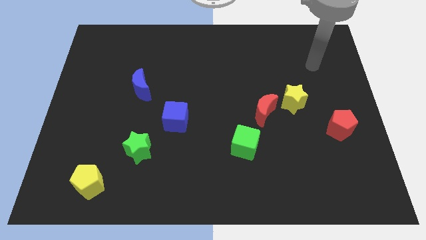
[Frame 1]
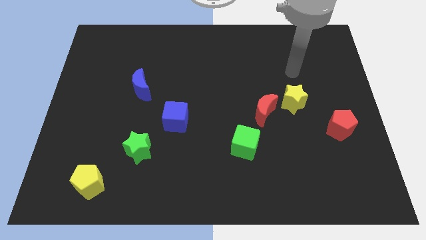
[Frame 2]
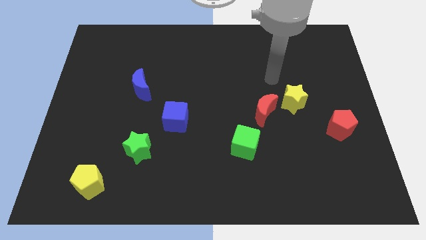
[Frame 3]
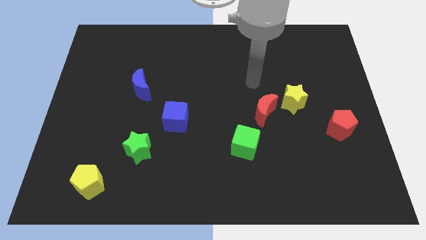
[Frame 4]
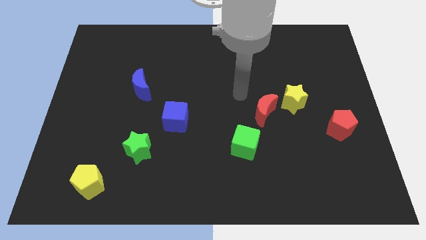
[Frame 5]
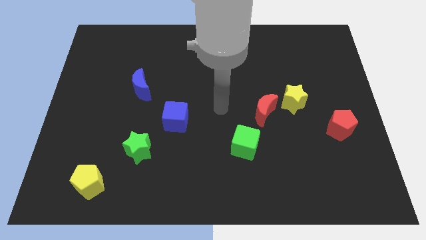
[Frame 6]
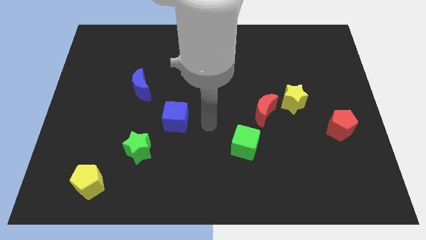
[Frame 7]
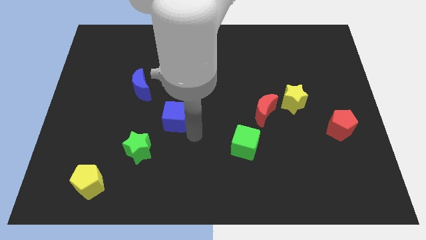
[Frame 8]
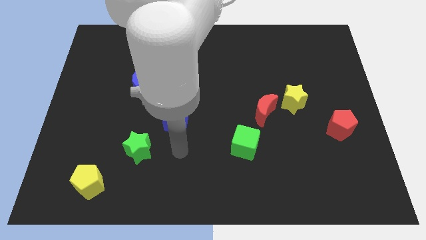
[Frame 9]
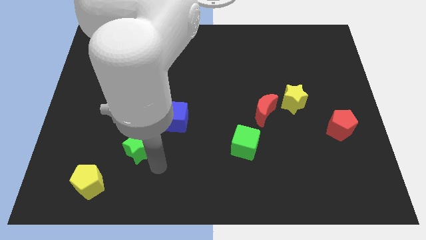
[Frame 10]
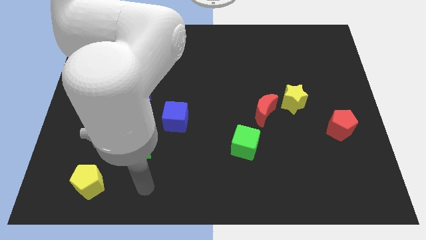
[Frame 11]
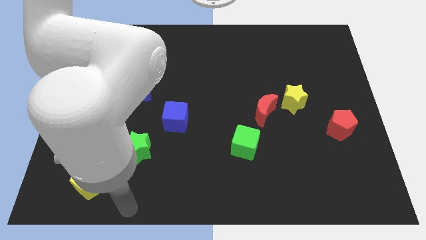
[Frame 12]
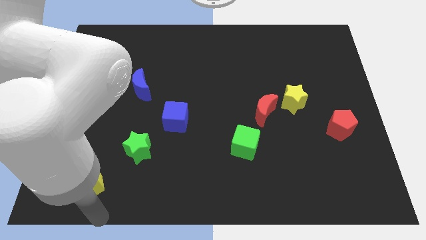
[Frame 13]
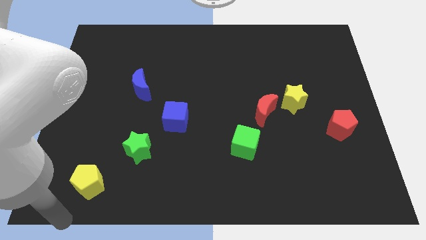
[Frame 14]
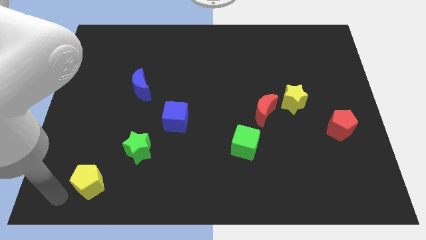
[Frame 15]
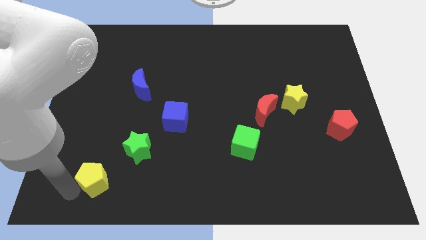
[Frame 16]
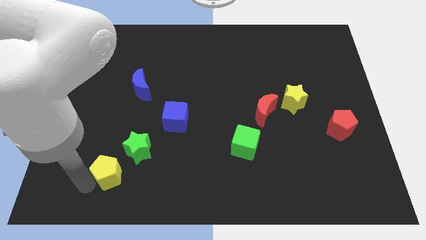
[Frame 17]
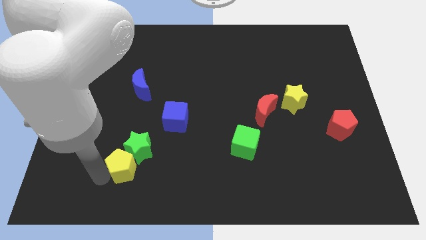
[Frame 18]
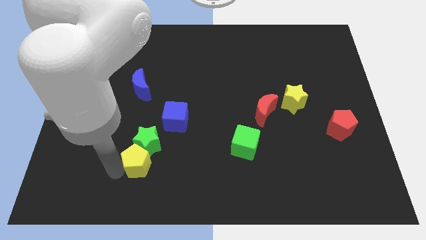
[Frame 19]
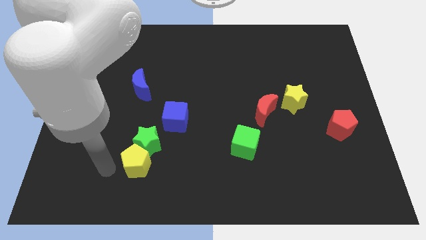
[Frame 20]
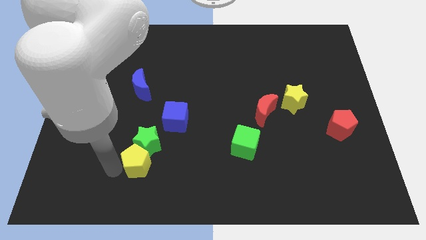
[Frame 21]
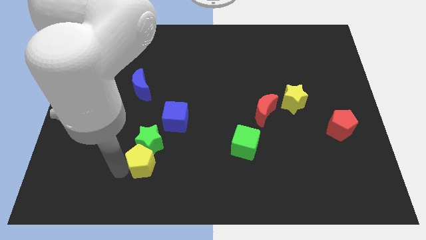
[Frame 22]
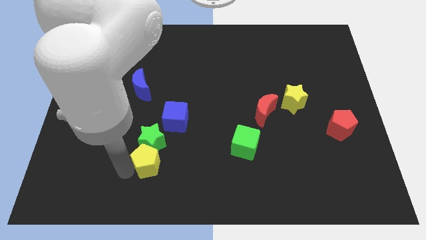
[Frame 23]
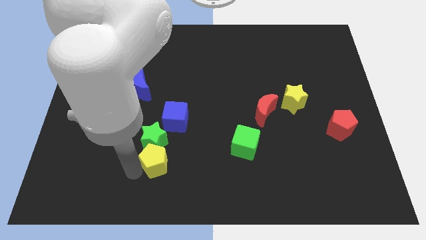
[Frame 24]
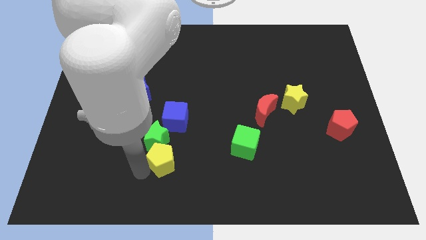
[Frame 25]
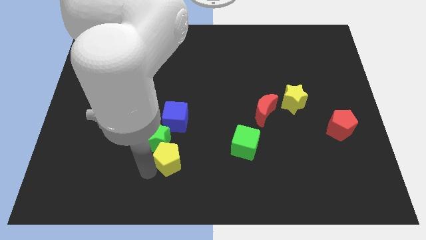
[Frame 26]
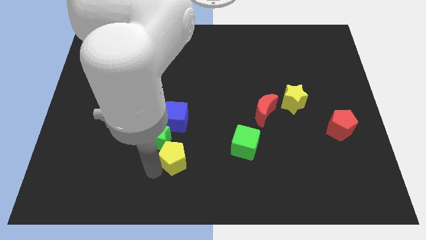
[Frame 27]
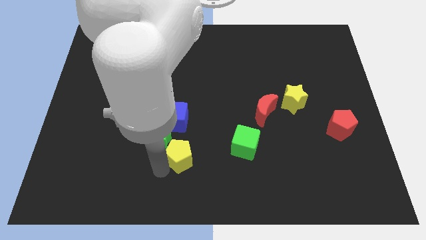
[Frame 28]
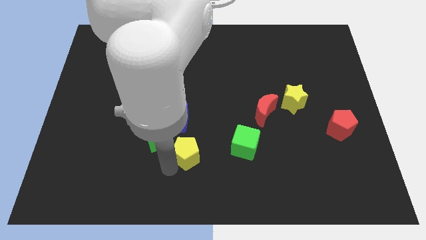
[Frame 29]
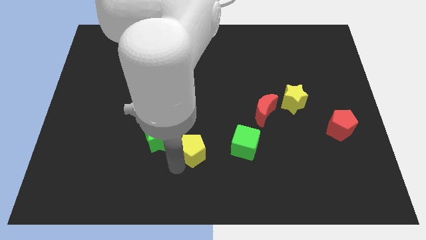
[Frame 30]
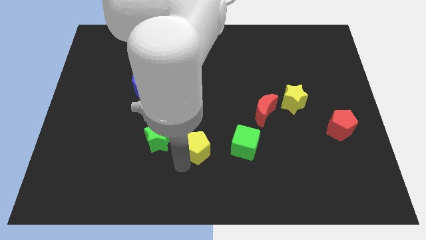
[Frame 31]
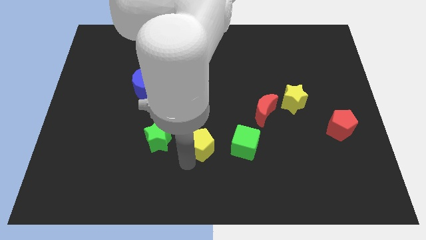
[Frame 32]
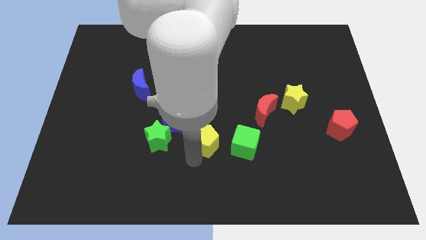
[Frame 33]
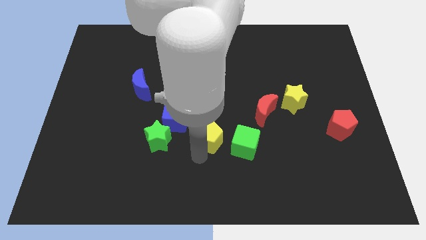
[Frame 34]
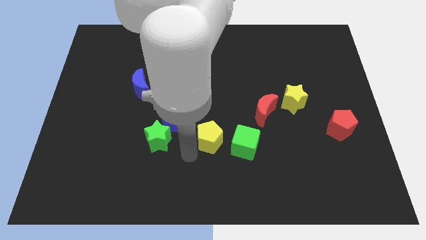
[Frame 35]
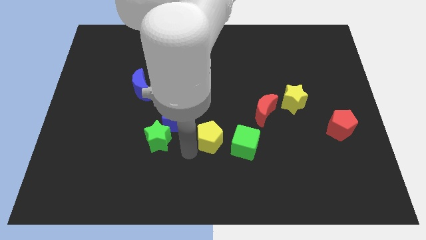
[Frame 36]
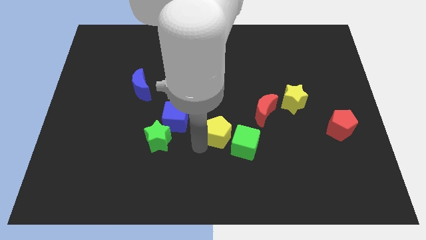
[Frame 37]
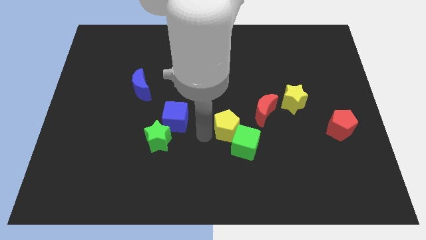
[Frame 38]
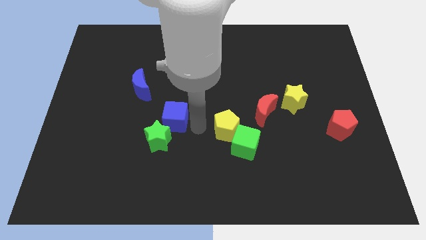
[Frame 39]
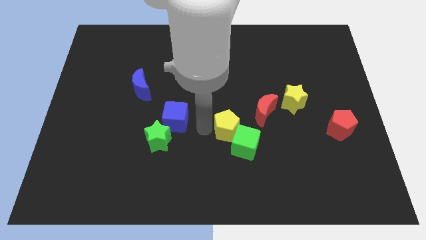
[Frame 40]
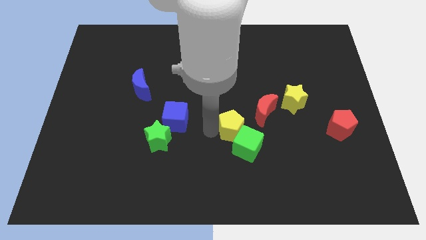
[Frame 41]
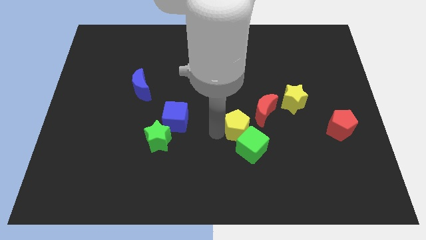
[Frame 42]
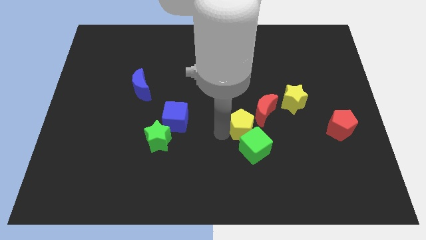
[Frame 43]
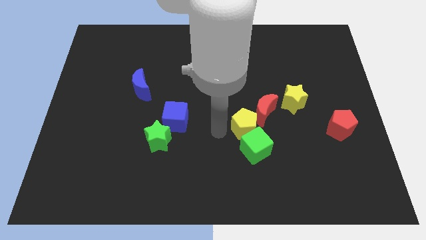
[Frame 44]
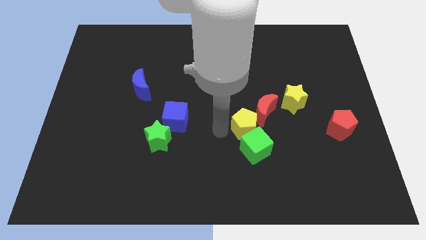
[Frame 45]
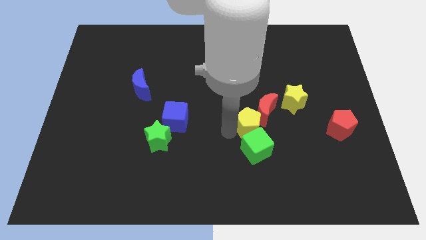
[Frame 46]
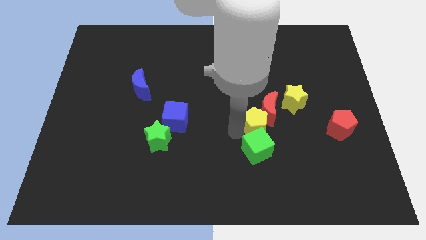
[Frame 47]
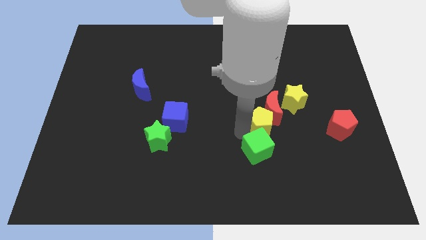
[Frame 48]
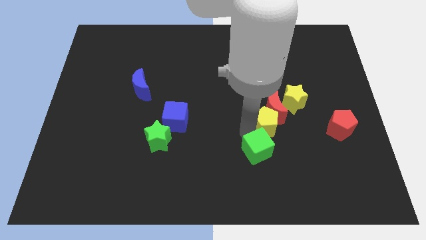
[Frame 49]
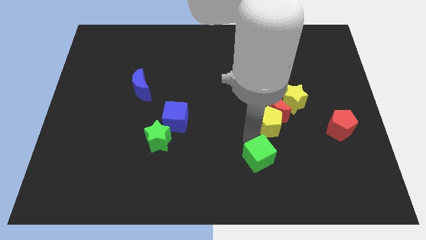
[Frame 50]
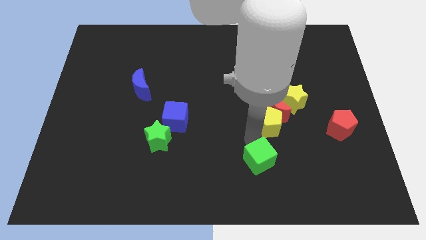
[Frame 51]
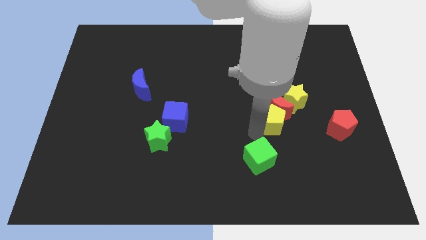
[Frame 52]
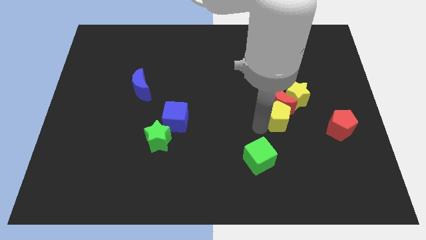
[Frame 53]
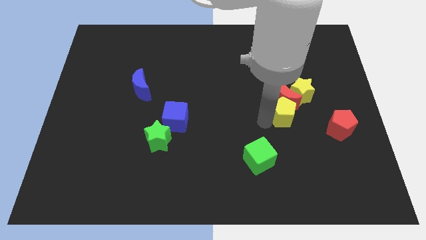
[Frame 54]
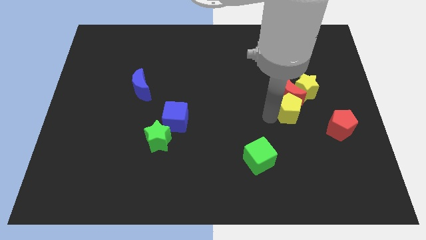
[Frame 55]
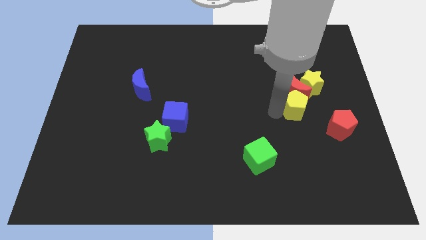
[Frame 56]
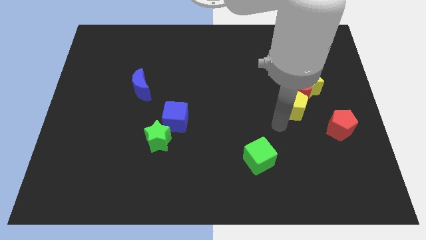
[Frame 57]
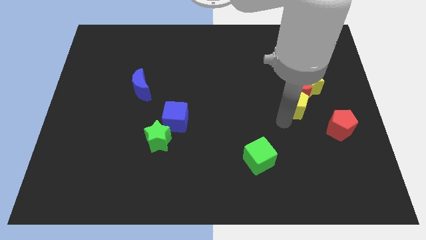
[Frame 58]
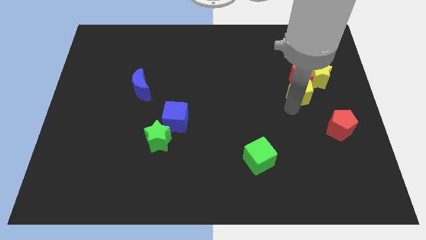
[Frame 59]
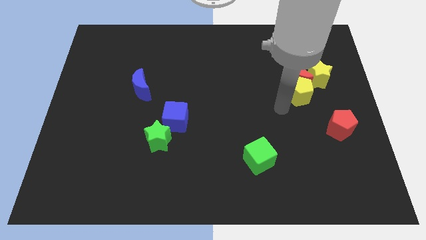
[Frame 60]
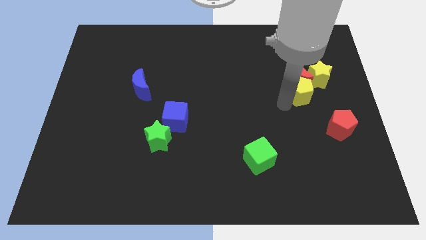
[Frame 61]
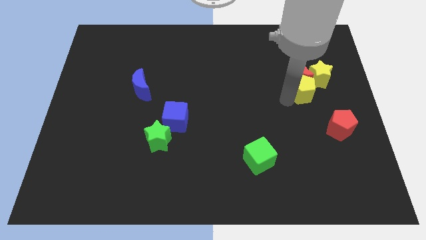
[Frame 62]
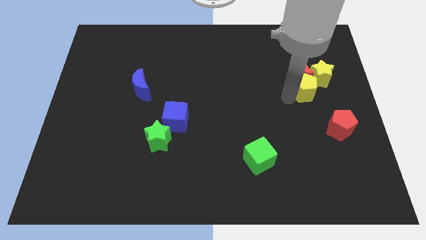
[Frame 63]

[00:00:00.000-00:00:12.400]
push the yellow pentagon towards the yellow star

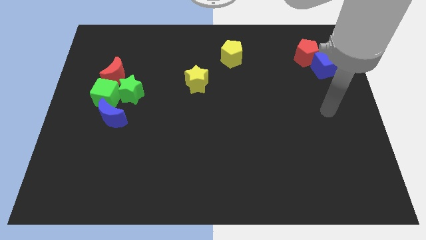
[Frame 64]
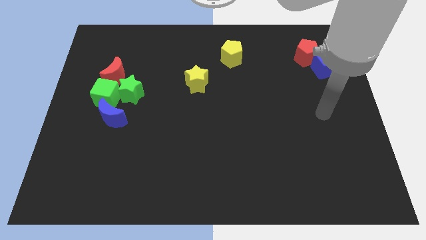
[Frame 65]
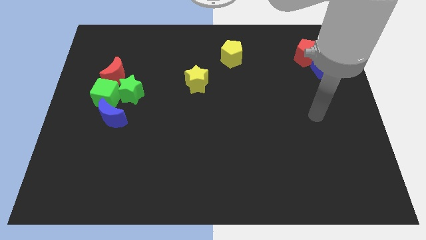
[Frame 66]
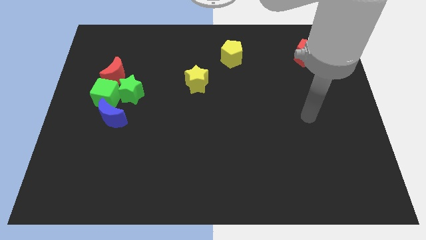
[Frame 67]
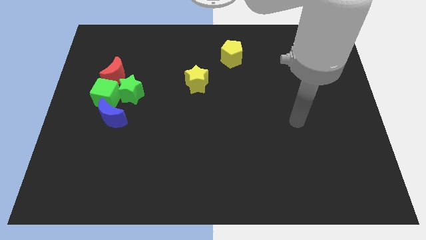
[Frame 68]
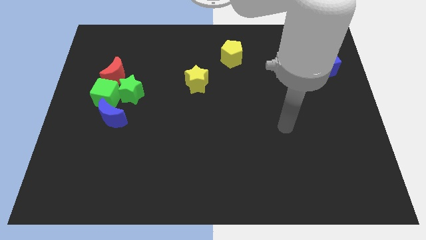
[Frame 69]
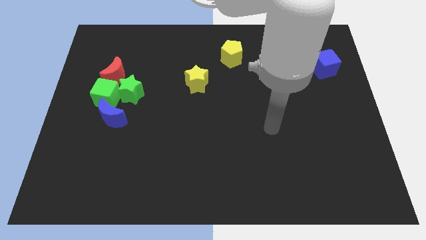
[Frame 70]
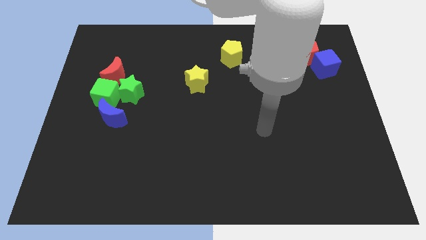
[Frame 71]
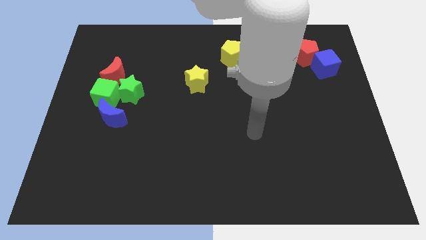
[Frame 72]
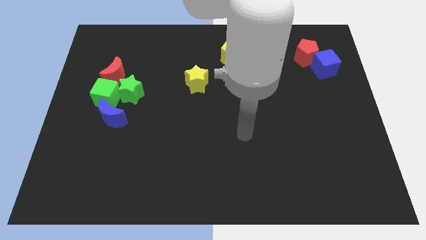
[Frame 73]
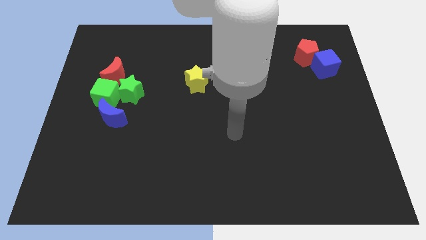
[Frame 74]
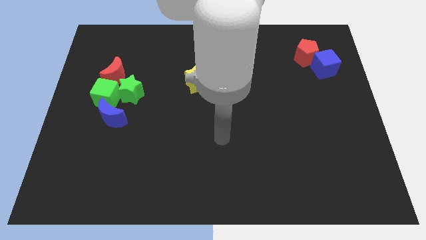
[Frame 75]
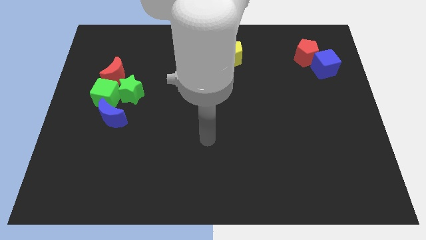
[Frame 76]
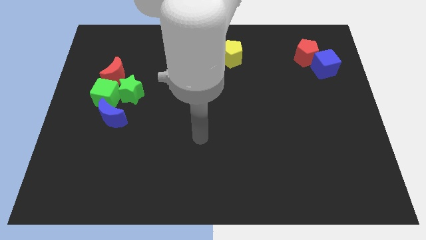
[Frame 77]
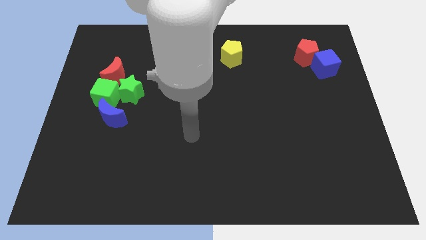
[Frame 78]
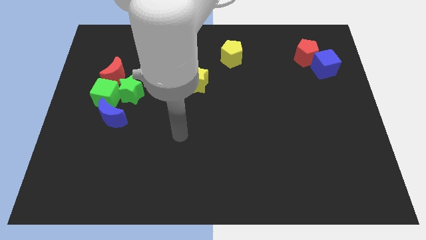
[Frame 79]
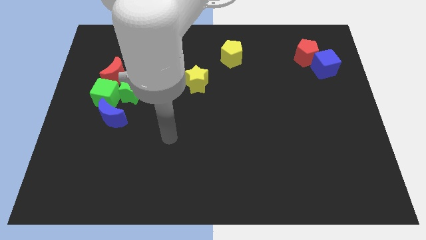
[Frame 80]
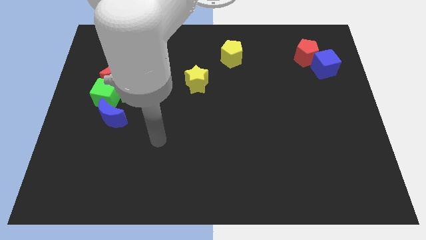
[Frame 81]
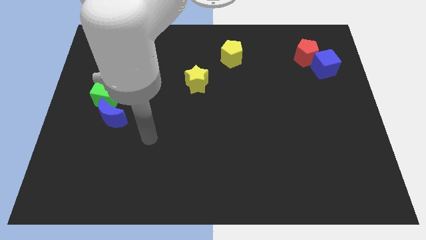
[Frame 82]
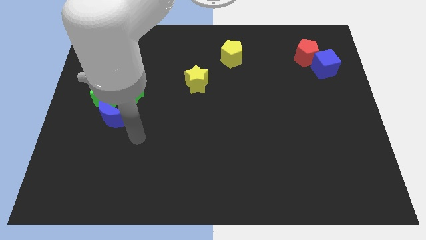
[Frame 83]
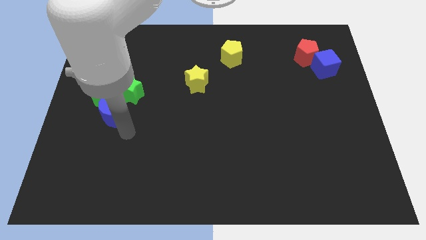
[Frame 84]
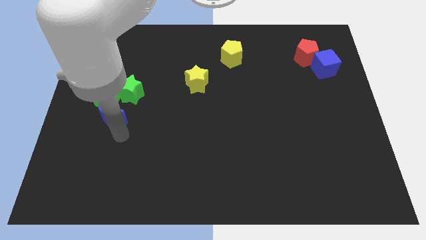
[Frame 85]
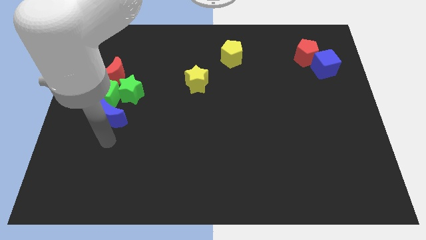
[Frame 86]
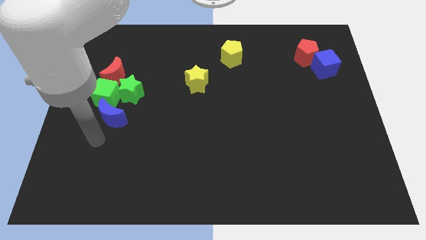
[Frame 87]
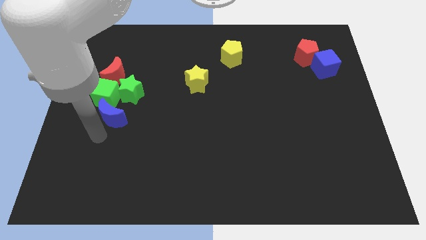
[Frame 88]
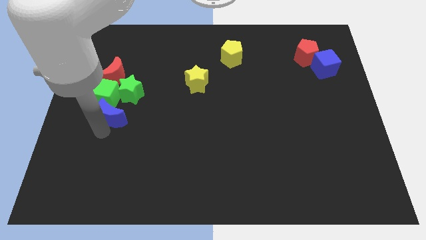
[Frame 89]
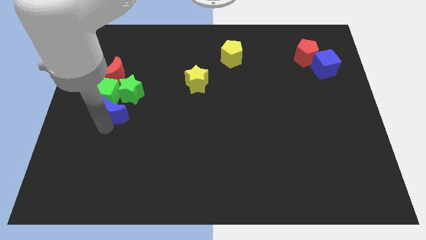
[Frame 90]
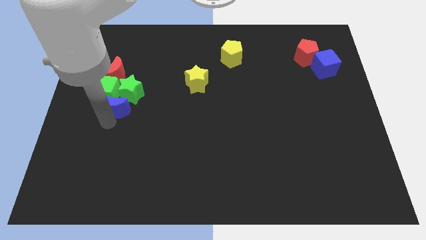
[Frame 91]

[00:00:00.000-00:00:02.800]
push the blue moon next to the green star
